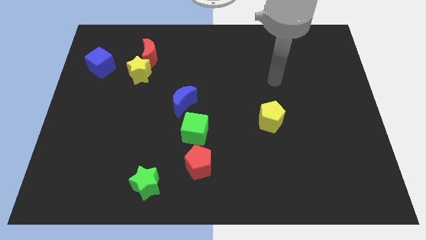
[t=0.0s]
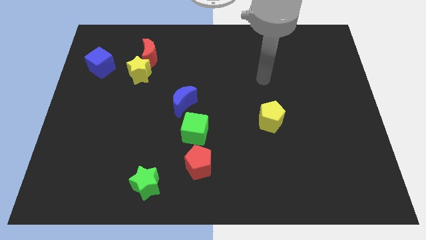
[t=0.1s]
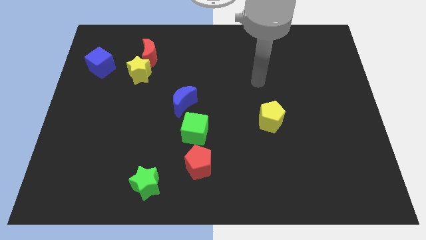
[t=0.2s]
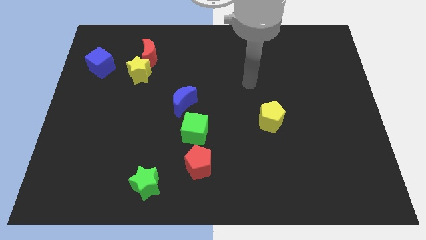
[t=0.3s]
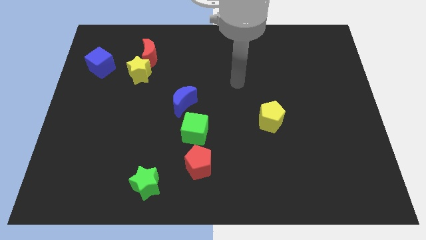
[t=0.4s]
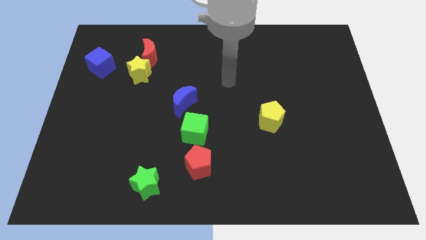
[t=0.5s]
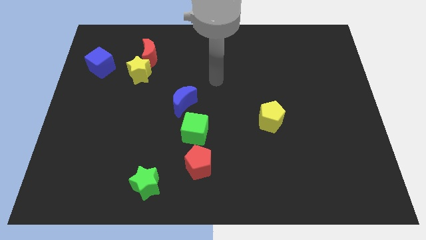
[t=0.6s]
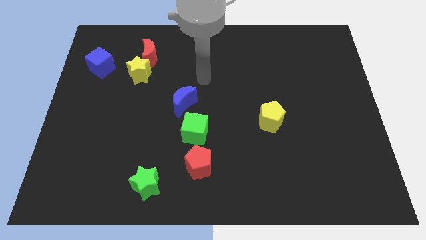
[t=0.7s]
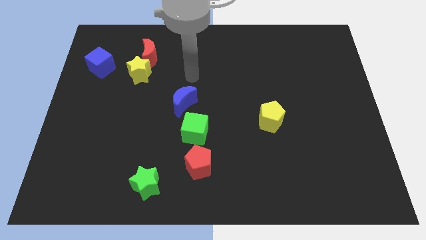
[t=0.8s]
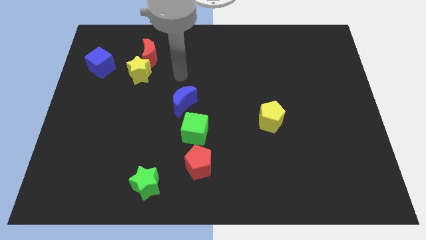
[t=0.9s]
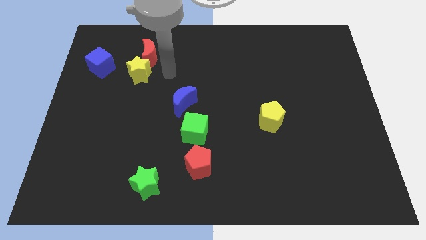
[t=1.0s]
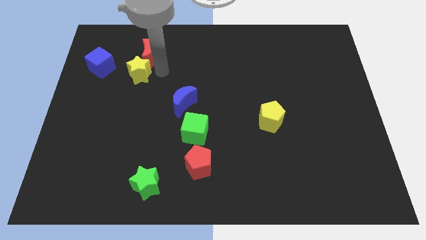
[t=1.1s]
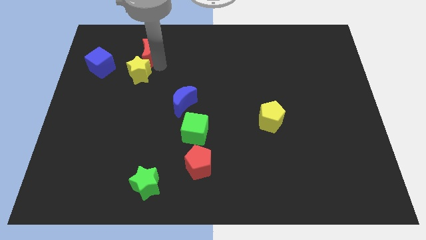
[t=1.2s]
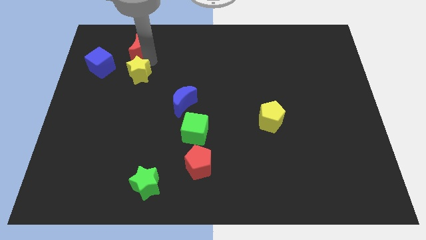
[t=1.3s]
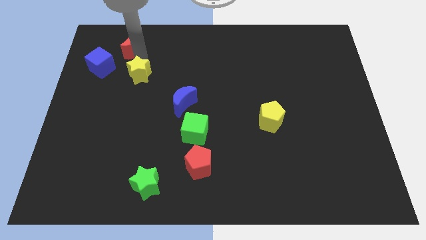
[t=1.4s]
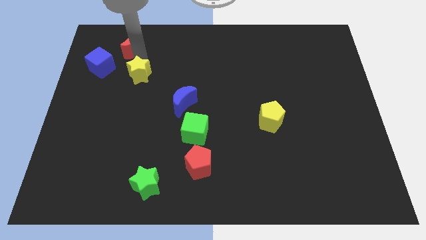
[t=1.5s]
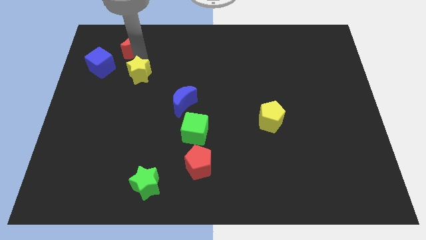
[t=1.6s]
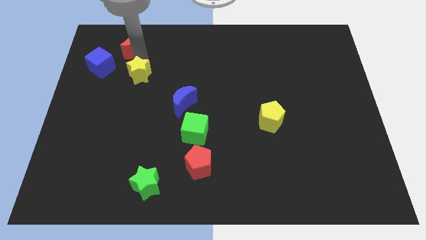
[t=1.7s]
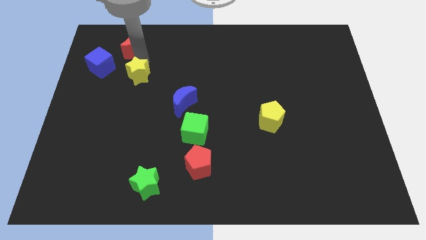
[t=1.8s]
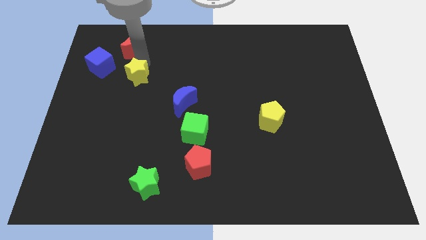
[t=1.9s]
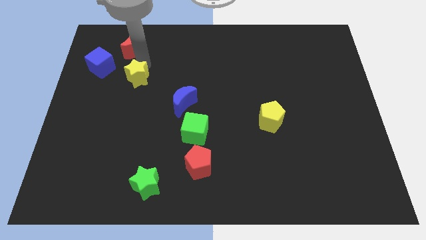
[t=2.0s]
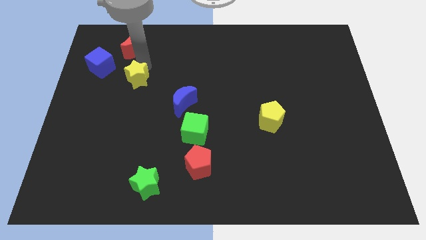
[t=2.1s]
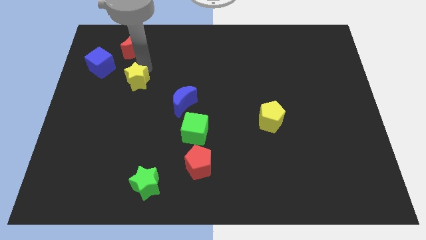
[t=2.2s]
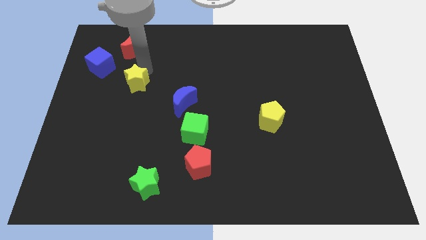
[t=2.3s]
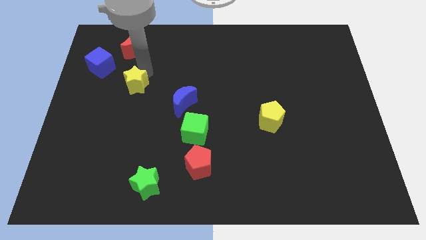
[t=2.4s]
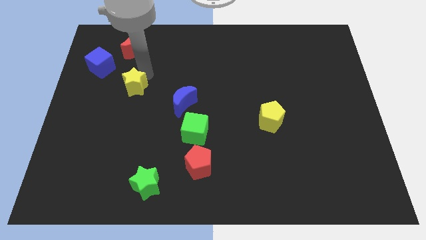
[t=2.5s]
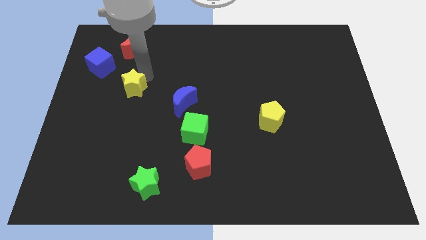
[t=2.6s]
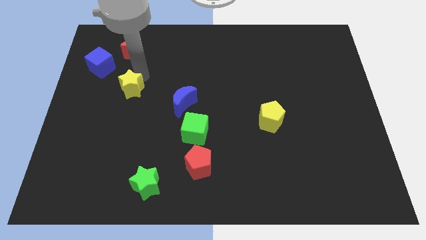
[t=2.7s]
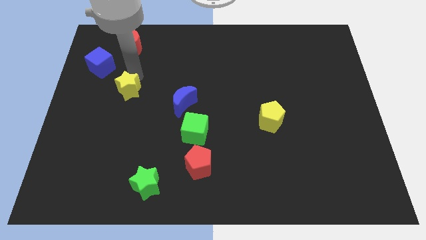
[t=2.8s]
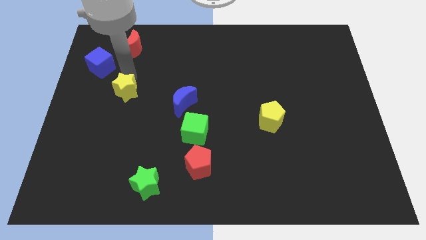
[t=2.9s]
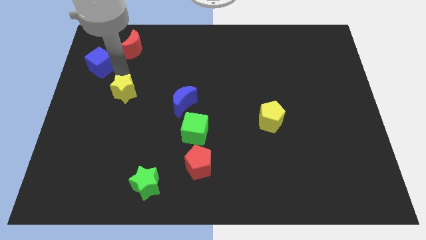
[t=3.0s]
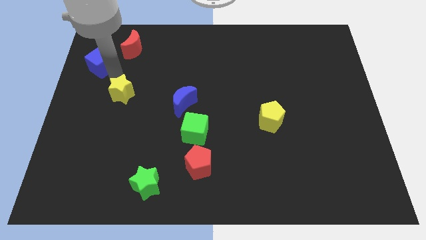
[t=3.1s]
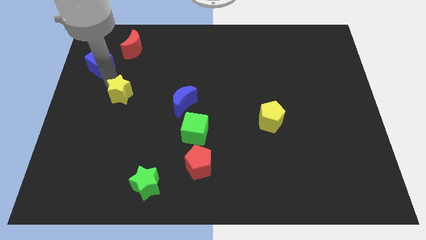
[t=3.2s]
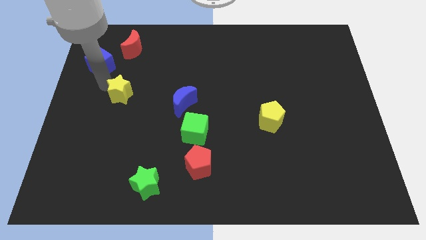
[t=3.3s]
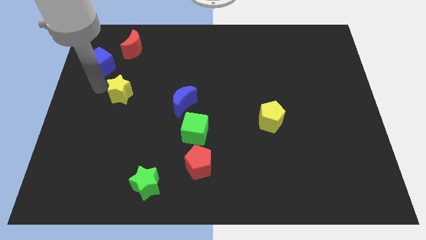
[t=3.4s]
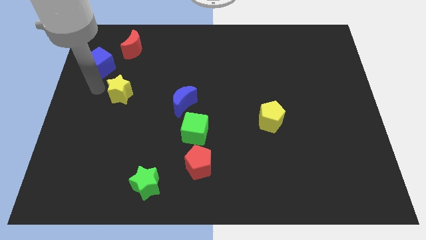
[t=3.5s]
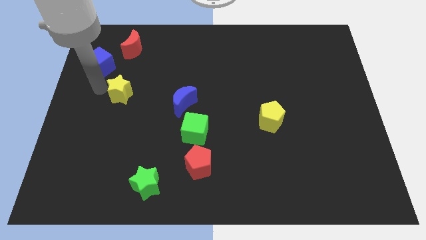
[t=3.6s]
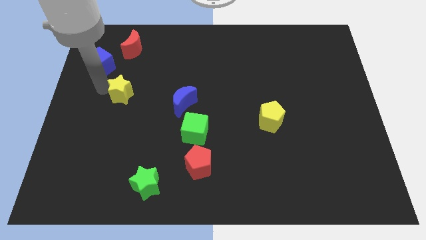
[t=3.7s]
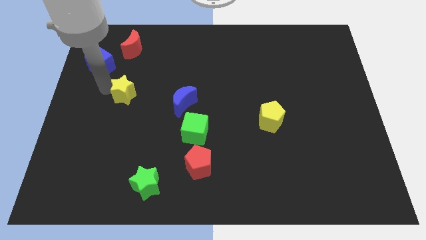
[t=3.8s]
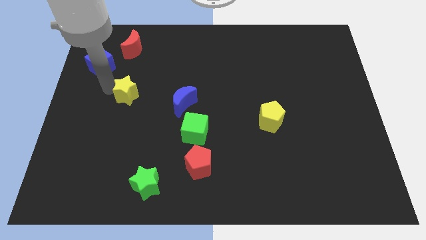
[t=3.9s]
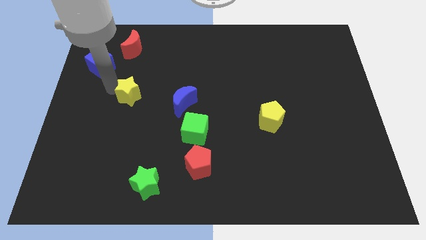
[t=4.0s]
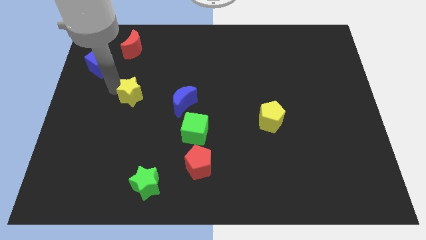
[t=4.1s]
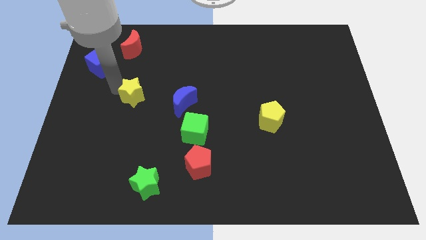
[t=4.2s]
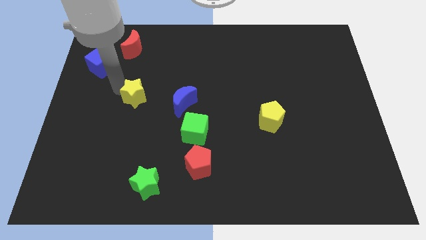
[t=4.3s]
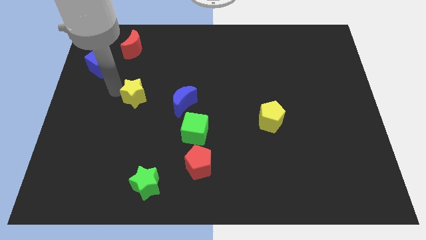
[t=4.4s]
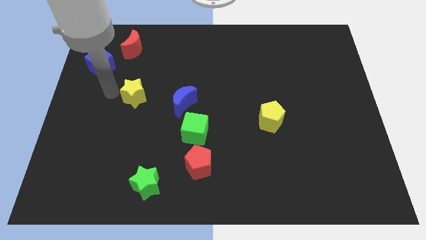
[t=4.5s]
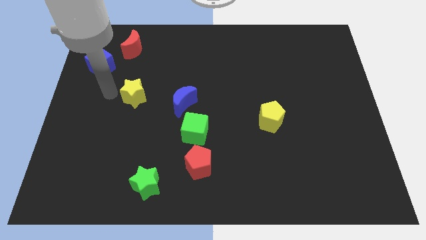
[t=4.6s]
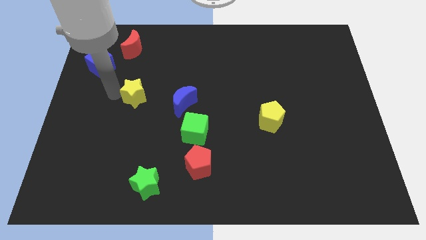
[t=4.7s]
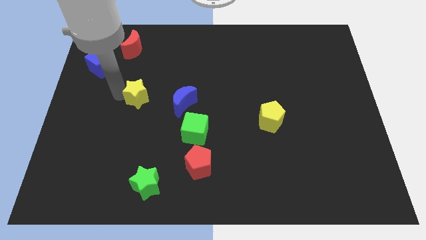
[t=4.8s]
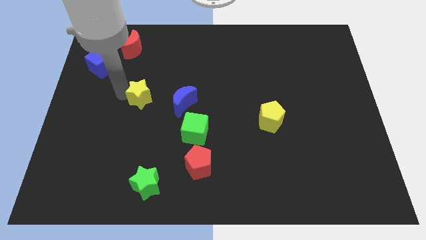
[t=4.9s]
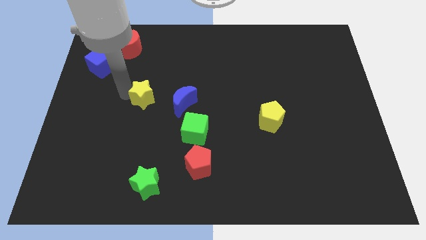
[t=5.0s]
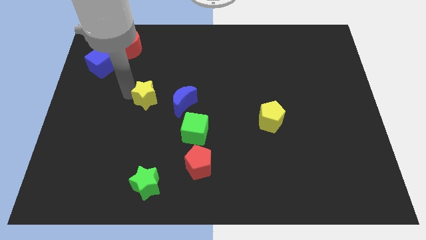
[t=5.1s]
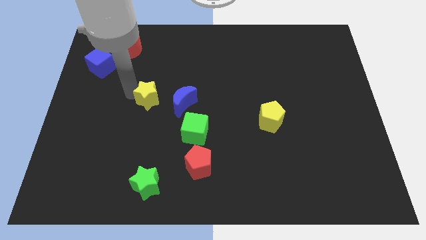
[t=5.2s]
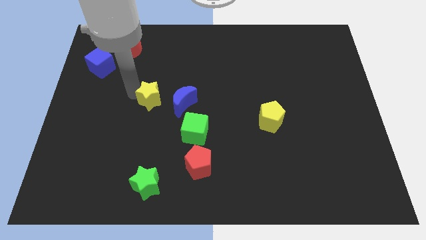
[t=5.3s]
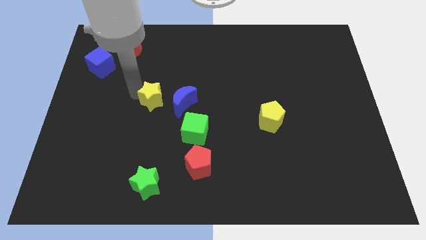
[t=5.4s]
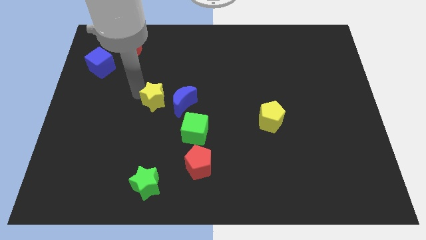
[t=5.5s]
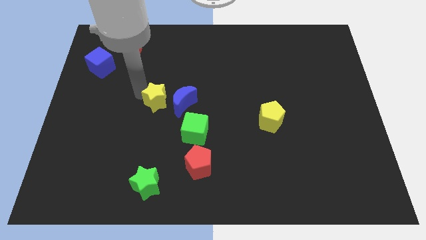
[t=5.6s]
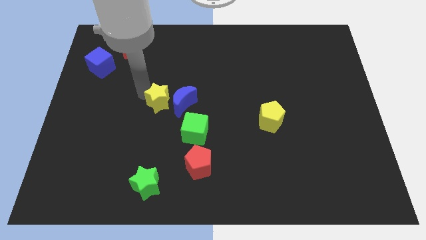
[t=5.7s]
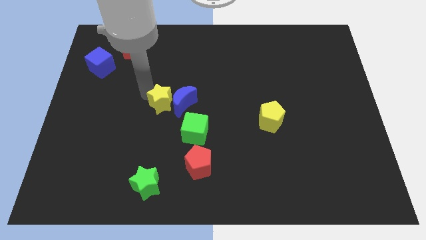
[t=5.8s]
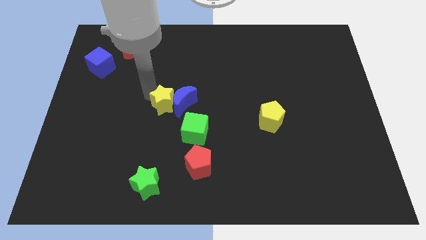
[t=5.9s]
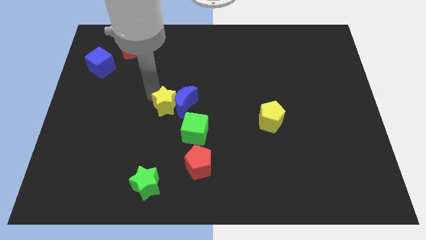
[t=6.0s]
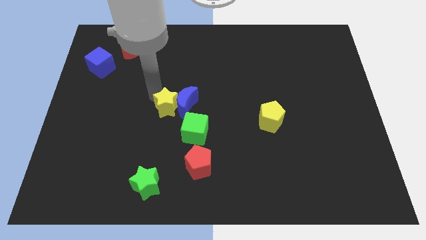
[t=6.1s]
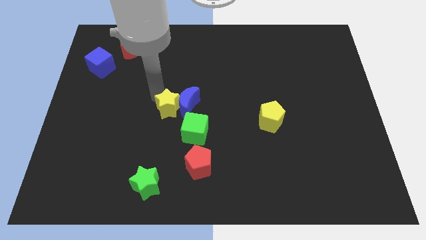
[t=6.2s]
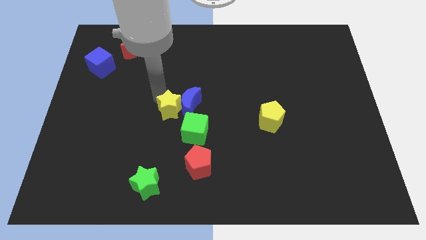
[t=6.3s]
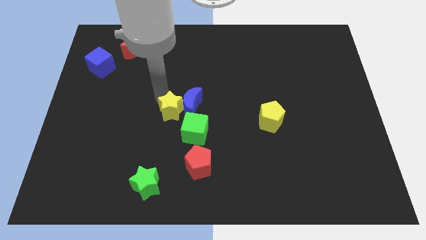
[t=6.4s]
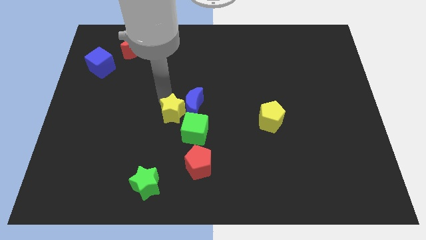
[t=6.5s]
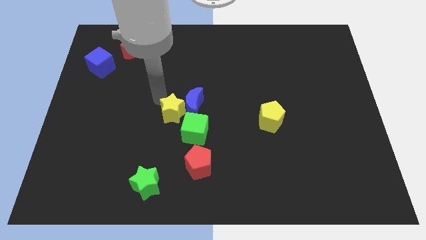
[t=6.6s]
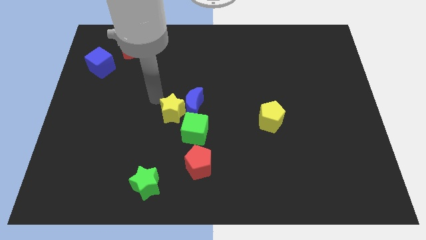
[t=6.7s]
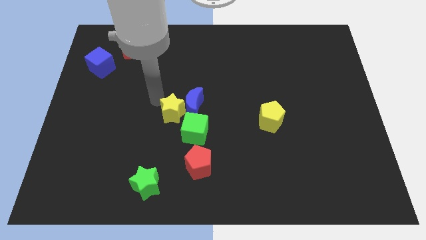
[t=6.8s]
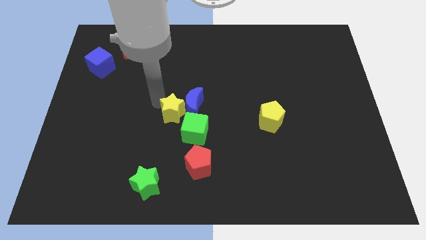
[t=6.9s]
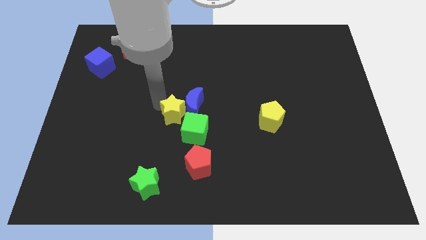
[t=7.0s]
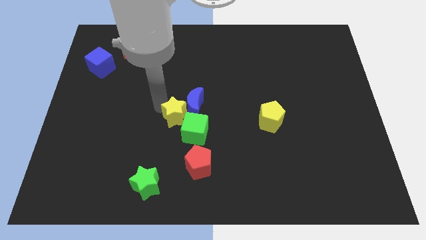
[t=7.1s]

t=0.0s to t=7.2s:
push the yellow star towards the green cube

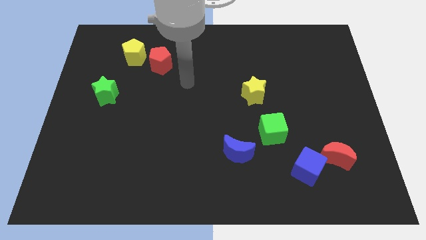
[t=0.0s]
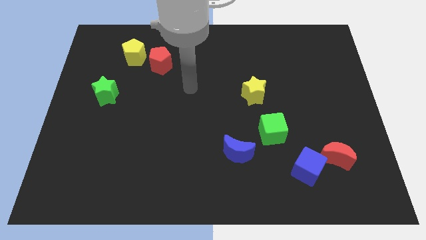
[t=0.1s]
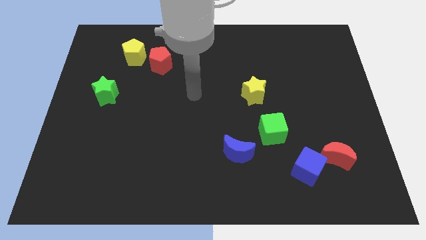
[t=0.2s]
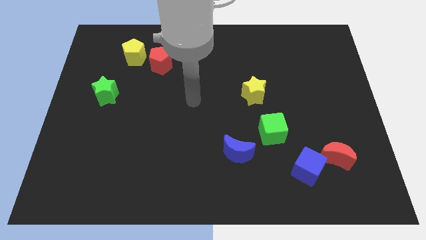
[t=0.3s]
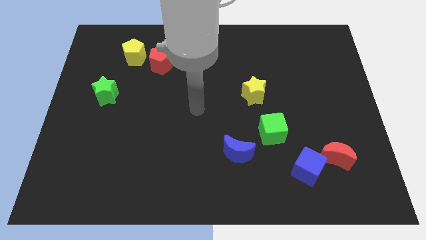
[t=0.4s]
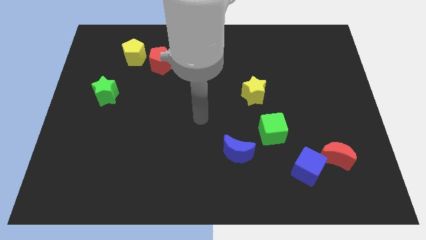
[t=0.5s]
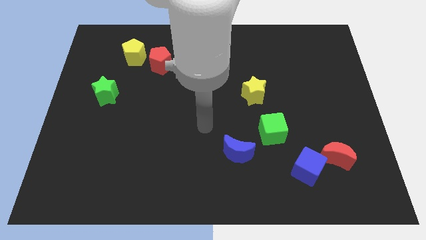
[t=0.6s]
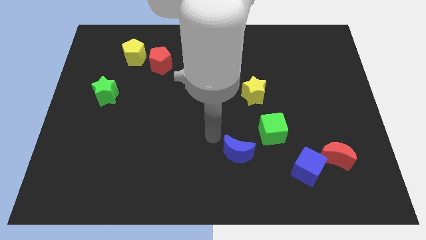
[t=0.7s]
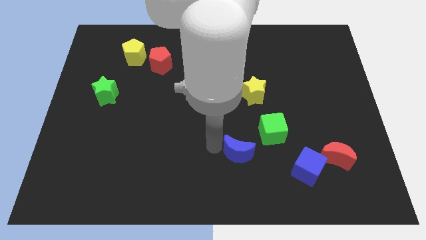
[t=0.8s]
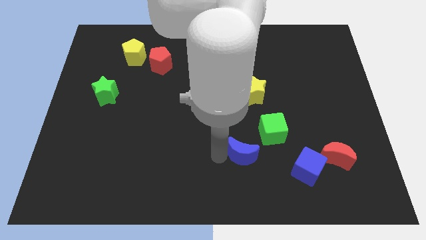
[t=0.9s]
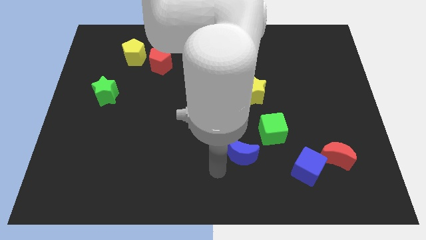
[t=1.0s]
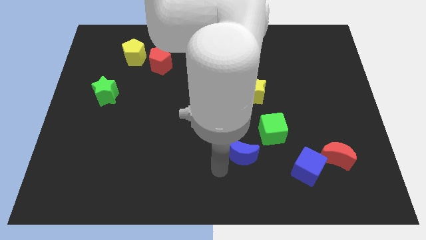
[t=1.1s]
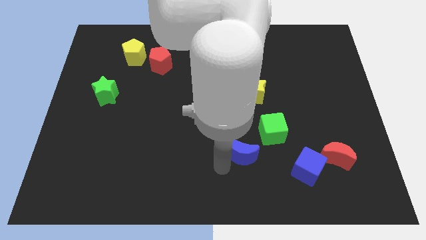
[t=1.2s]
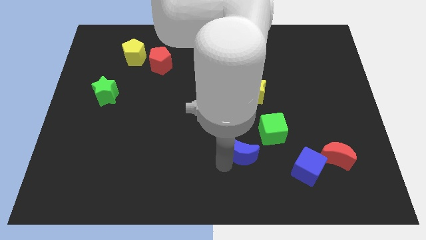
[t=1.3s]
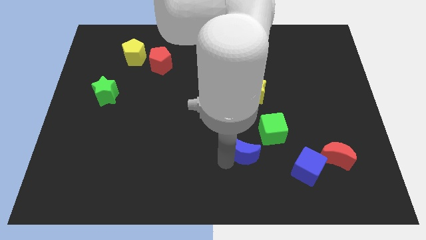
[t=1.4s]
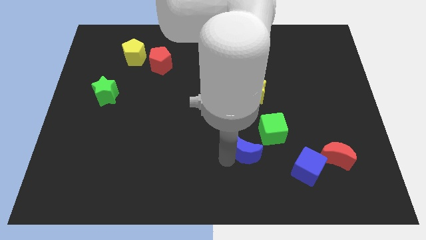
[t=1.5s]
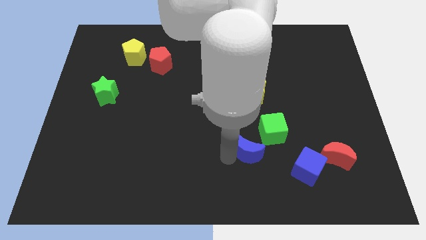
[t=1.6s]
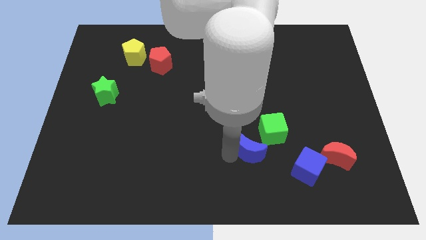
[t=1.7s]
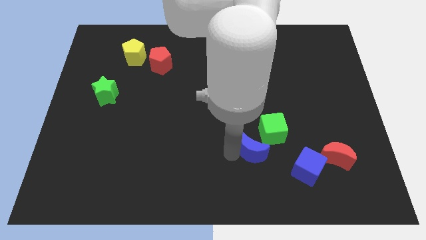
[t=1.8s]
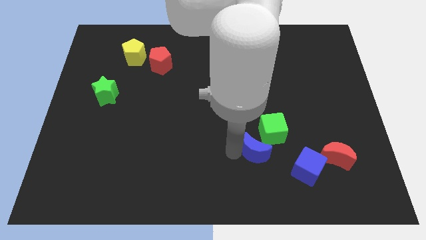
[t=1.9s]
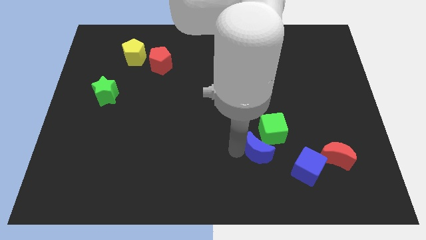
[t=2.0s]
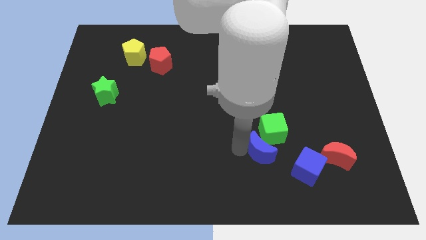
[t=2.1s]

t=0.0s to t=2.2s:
push the blue moon towards the green cube
